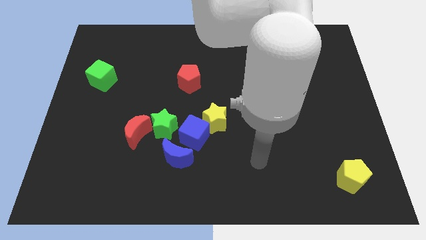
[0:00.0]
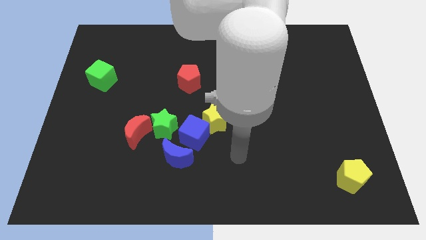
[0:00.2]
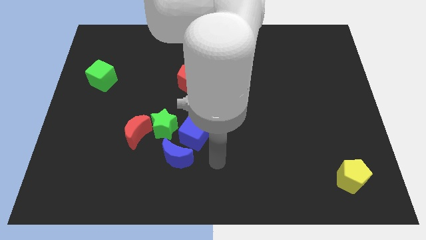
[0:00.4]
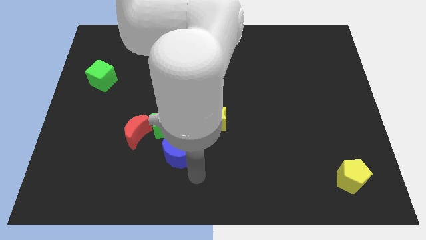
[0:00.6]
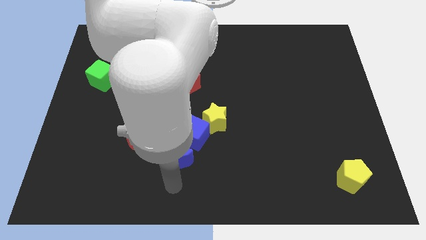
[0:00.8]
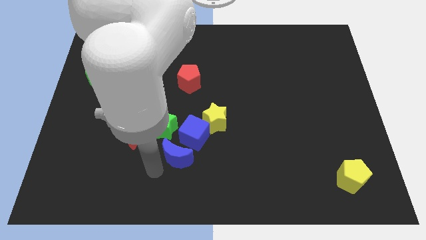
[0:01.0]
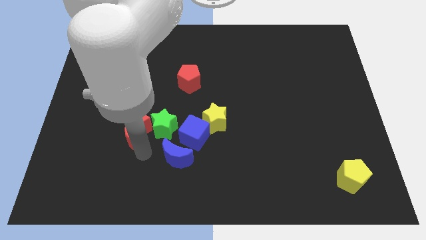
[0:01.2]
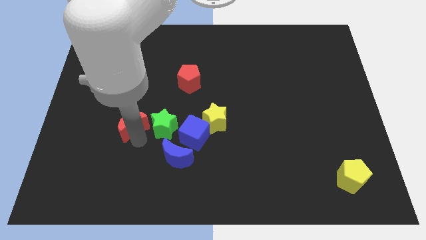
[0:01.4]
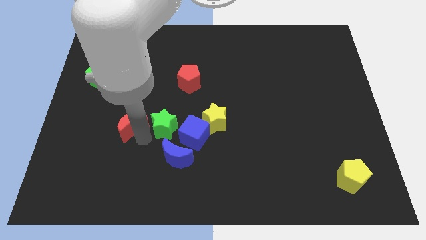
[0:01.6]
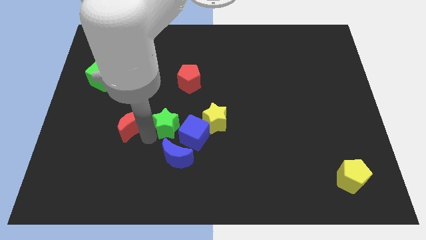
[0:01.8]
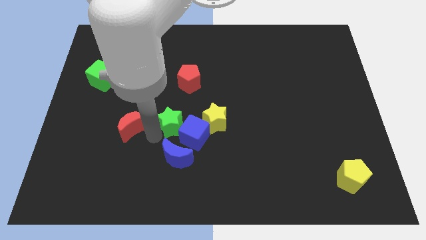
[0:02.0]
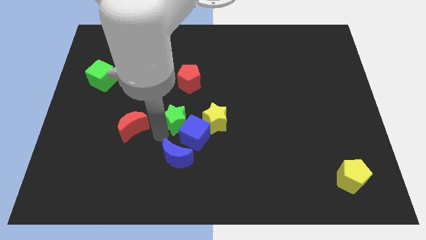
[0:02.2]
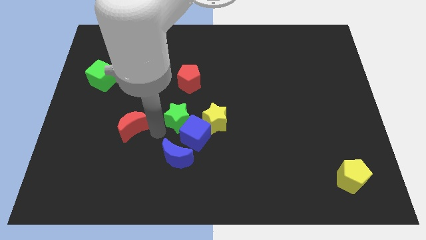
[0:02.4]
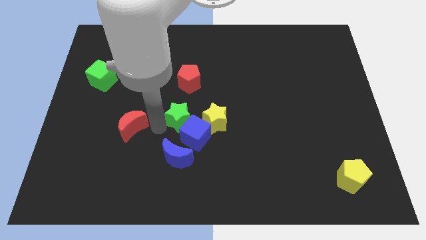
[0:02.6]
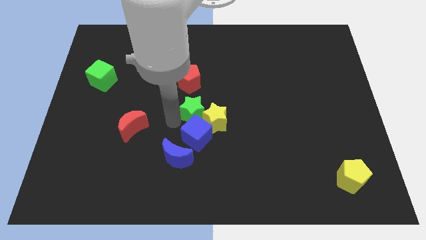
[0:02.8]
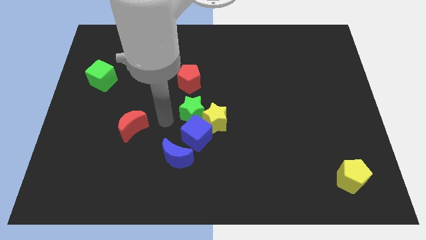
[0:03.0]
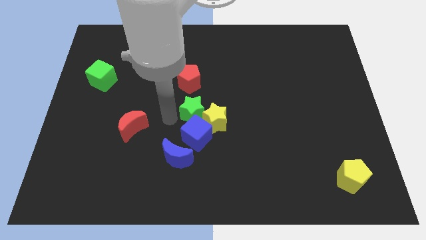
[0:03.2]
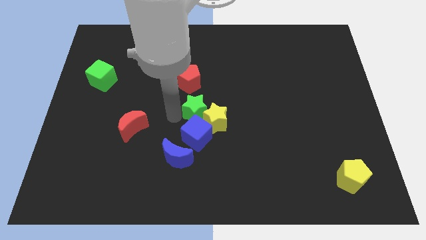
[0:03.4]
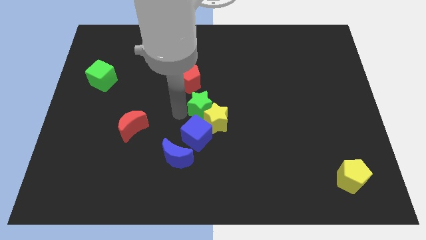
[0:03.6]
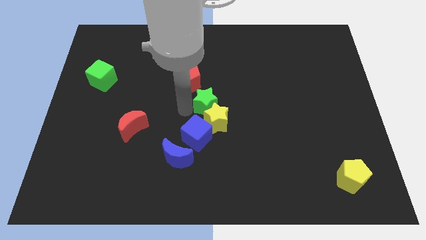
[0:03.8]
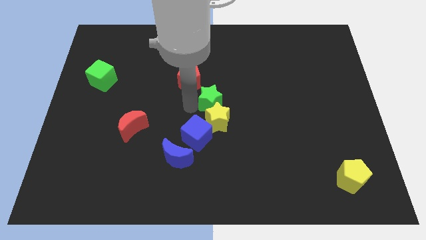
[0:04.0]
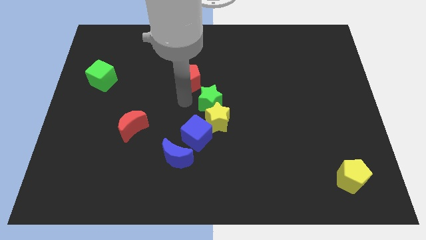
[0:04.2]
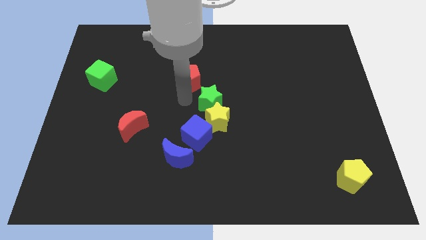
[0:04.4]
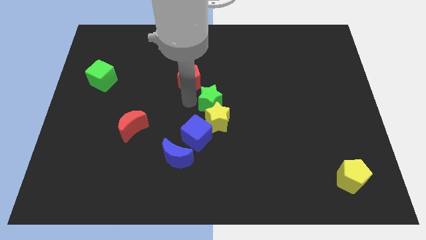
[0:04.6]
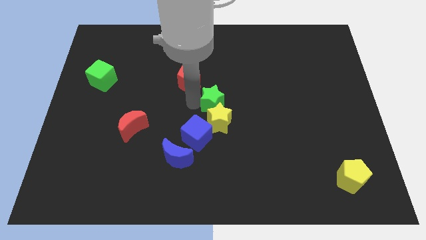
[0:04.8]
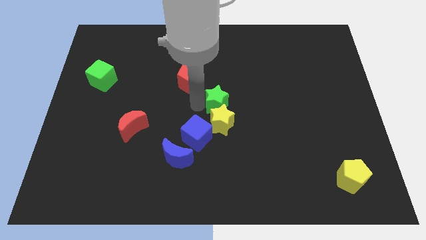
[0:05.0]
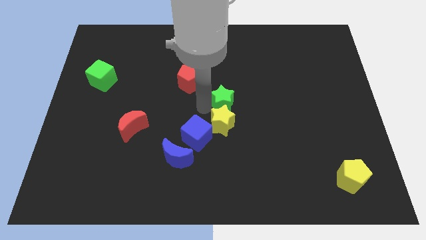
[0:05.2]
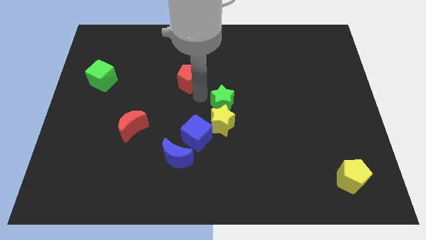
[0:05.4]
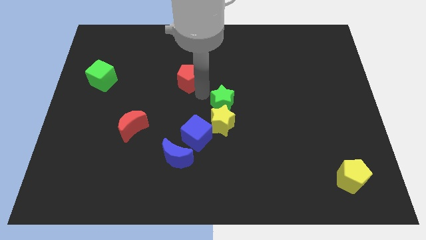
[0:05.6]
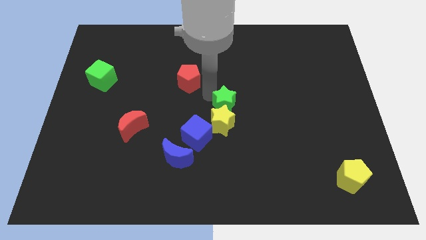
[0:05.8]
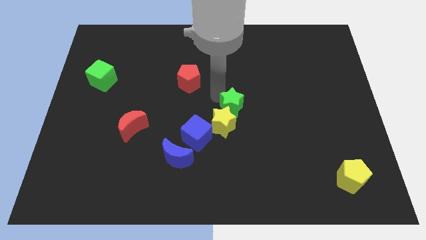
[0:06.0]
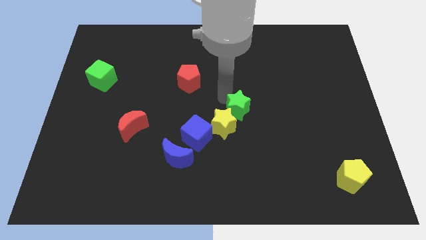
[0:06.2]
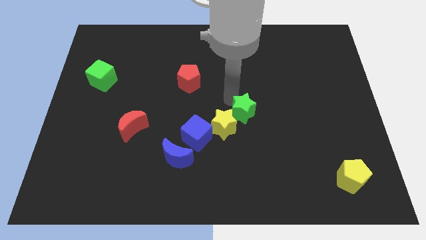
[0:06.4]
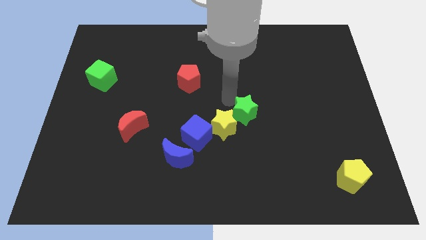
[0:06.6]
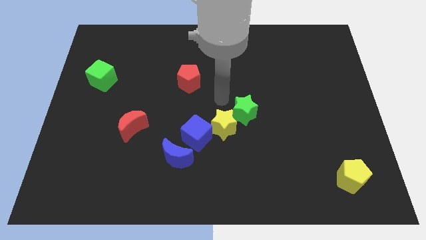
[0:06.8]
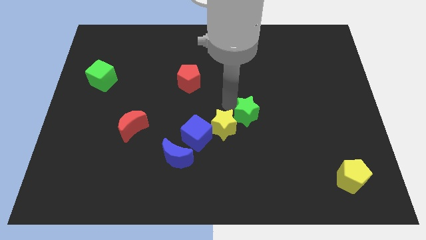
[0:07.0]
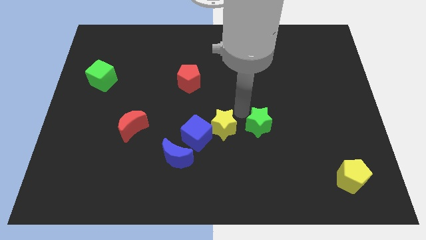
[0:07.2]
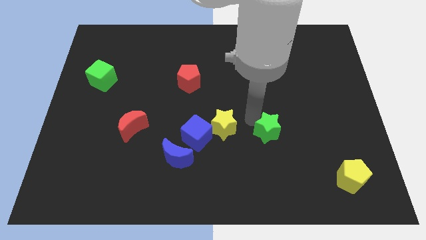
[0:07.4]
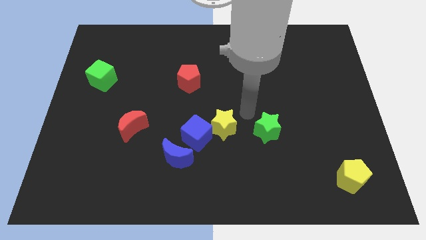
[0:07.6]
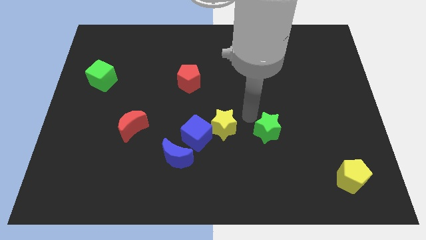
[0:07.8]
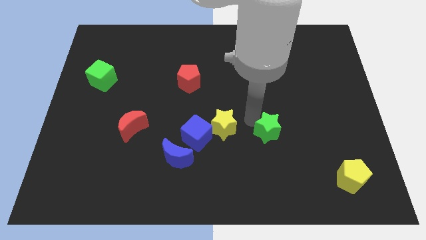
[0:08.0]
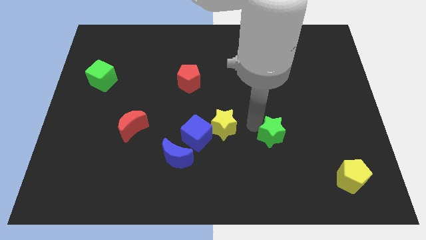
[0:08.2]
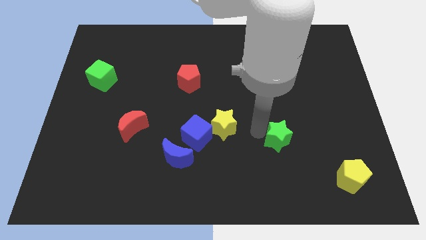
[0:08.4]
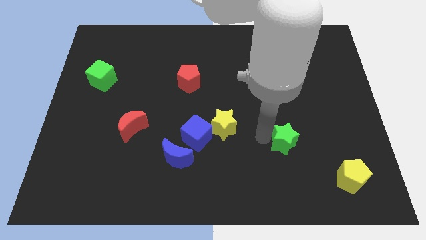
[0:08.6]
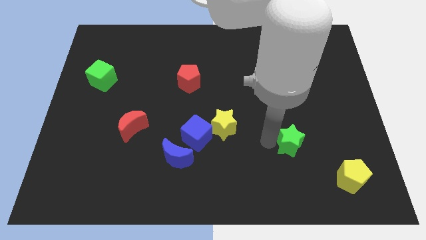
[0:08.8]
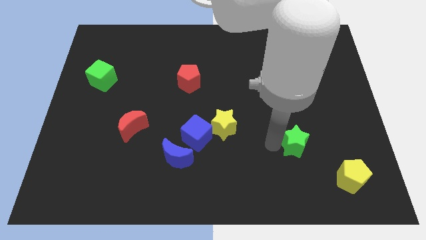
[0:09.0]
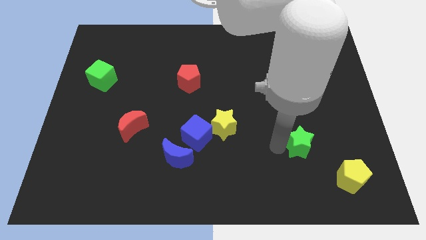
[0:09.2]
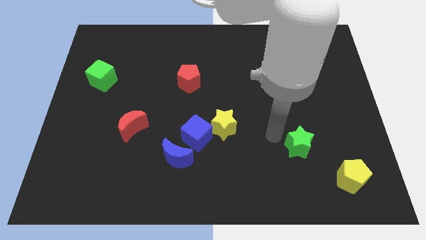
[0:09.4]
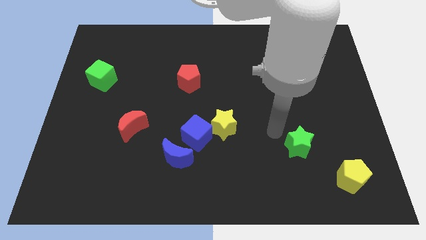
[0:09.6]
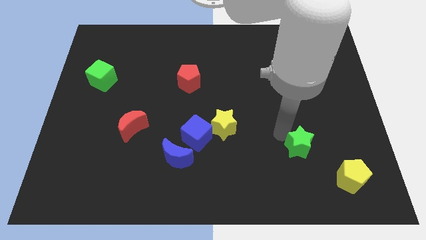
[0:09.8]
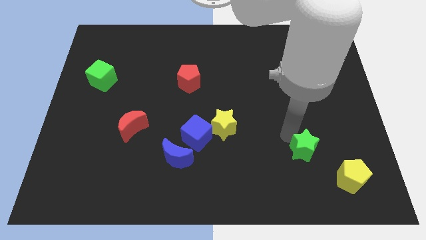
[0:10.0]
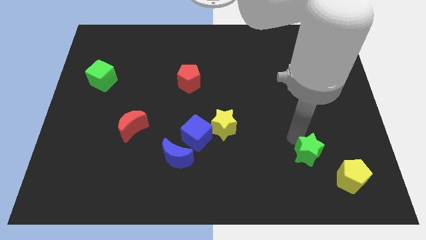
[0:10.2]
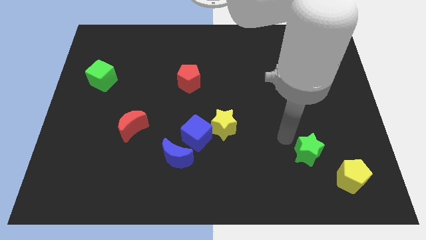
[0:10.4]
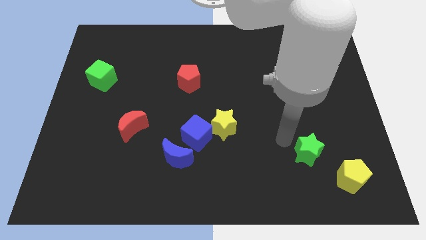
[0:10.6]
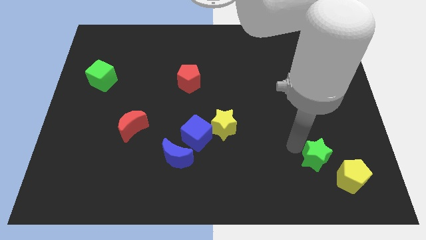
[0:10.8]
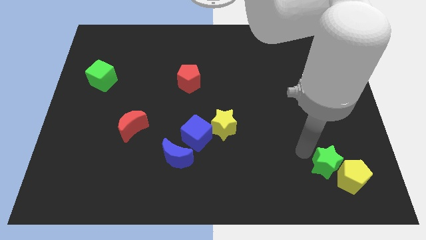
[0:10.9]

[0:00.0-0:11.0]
put the green star close to the yellow pentagon

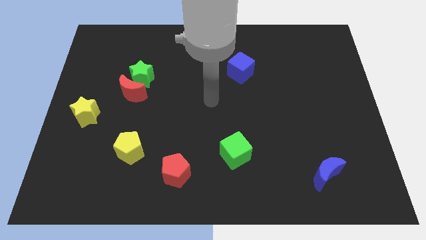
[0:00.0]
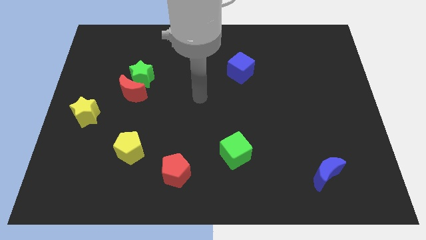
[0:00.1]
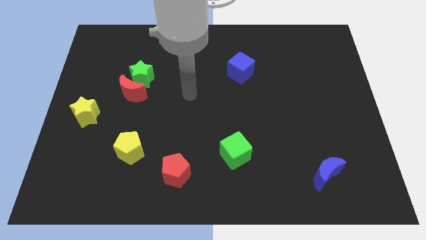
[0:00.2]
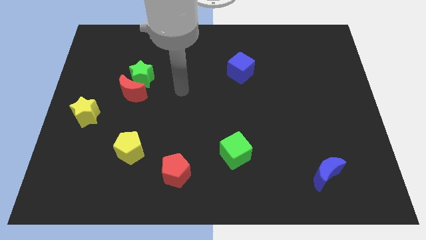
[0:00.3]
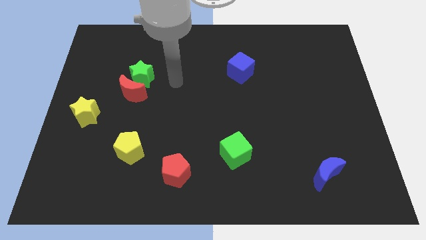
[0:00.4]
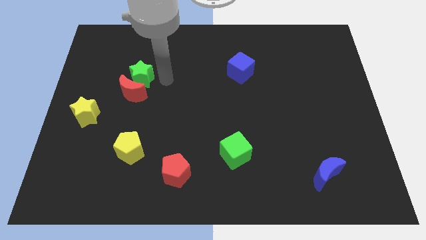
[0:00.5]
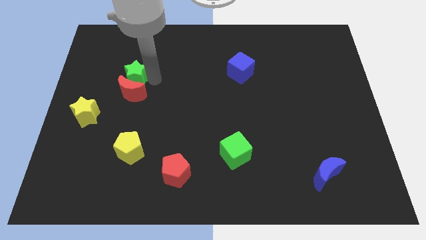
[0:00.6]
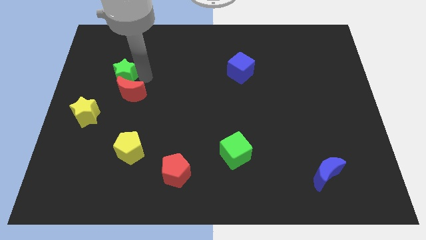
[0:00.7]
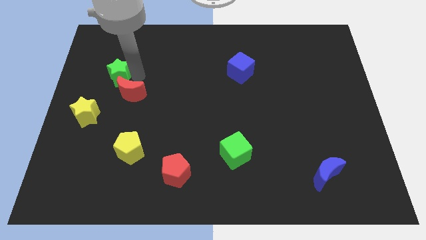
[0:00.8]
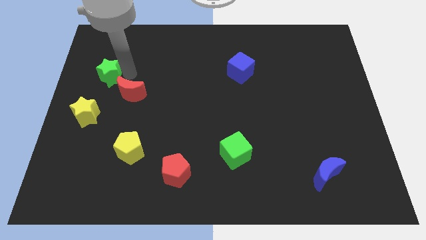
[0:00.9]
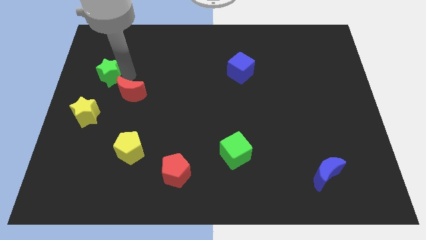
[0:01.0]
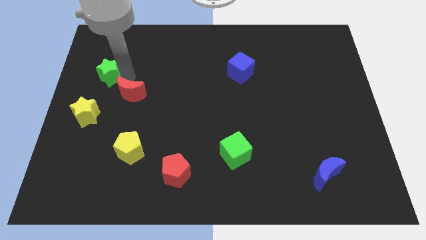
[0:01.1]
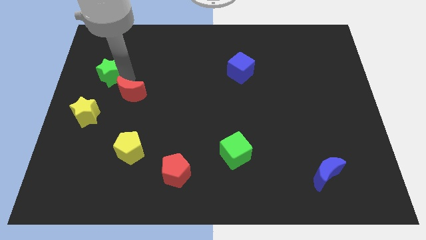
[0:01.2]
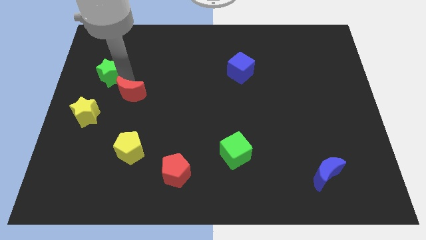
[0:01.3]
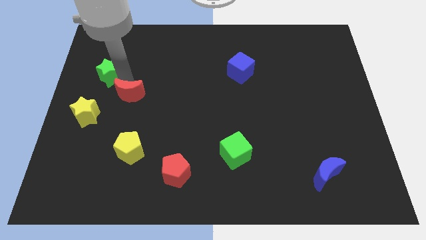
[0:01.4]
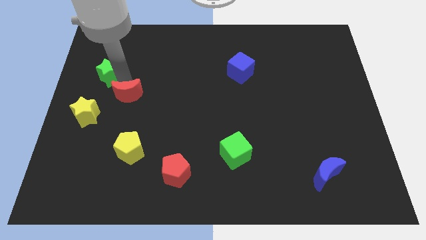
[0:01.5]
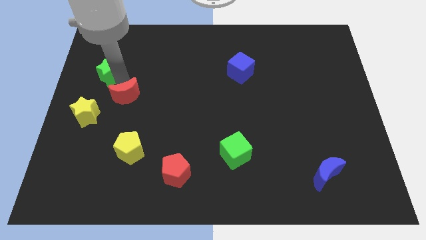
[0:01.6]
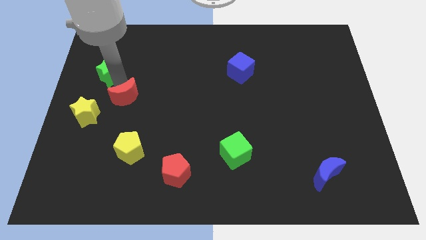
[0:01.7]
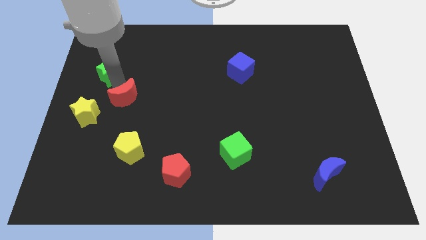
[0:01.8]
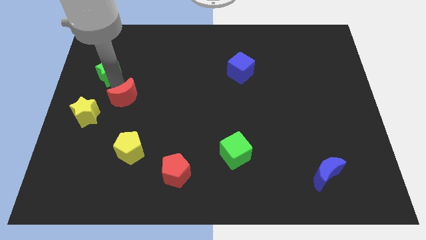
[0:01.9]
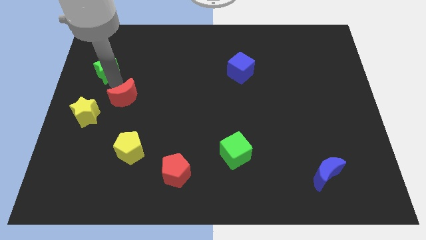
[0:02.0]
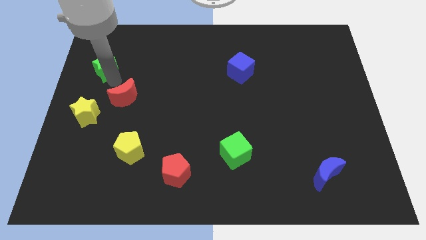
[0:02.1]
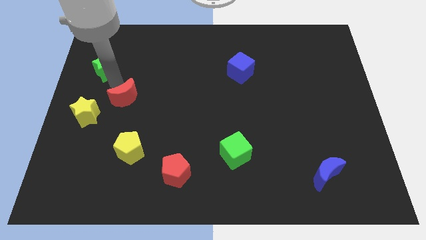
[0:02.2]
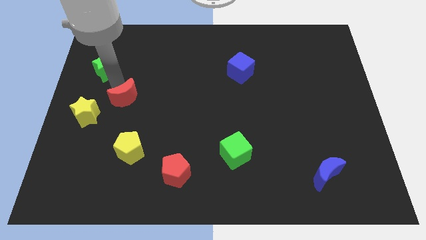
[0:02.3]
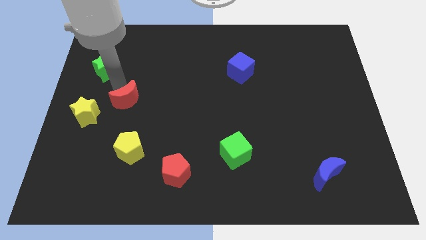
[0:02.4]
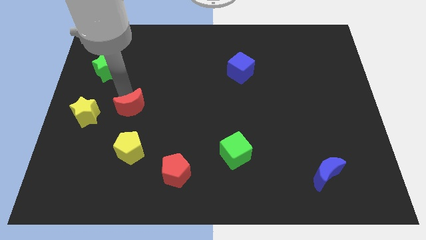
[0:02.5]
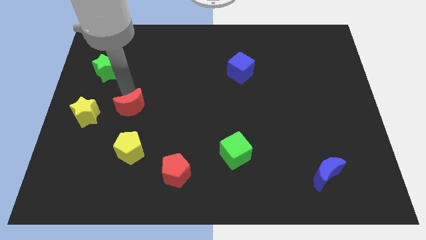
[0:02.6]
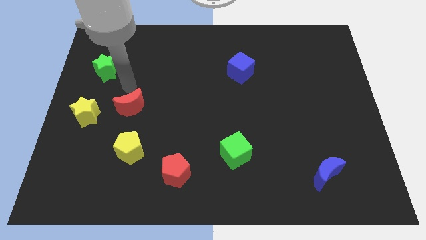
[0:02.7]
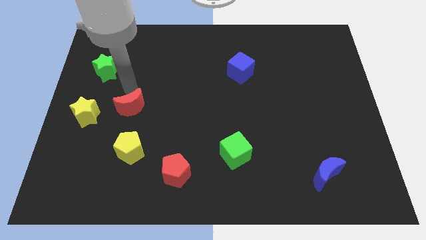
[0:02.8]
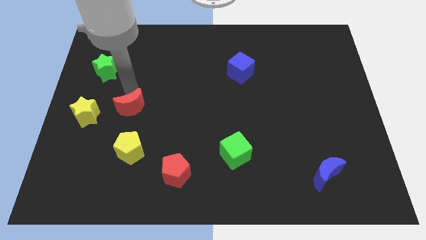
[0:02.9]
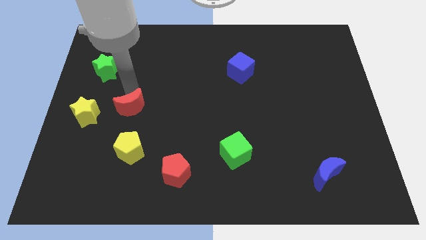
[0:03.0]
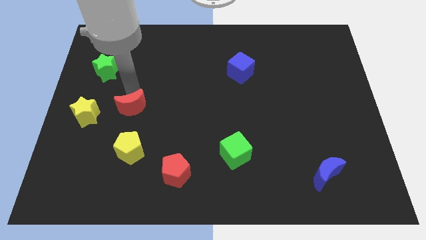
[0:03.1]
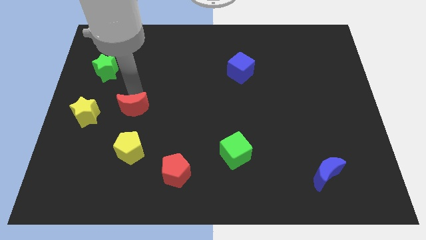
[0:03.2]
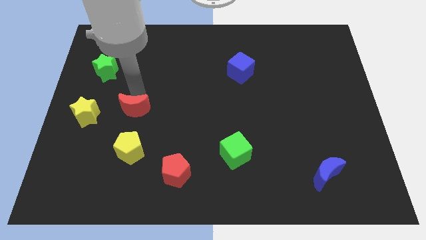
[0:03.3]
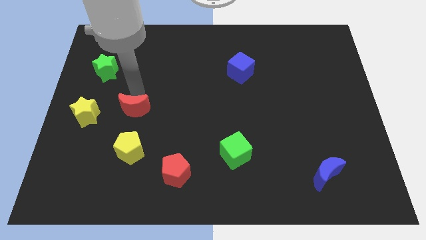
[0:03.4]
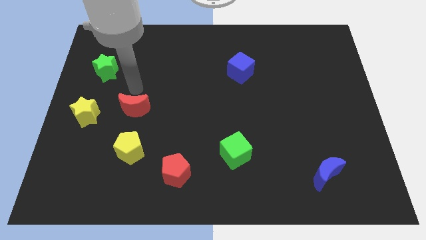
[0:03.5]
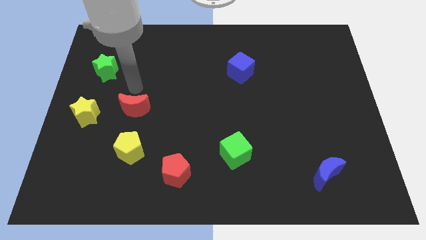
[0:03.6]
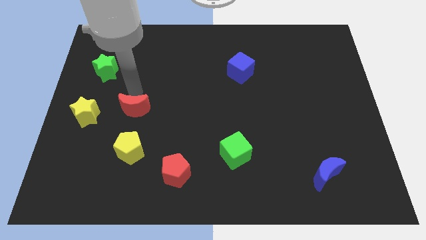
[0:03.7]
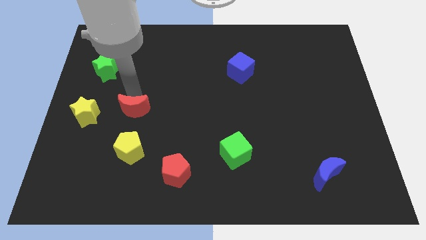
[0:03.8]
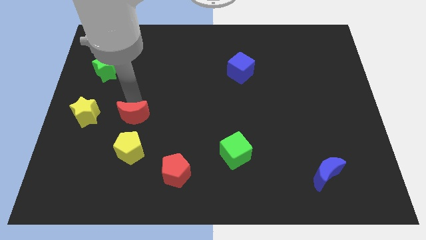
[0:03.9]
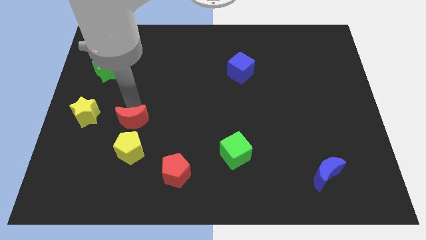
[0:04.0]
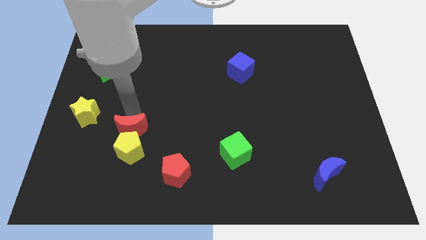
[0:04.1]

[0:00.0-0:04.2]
move the red moon to the yellow pentagon
